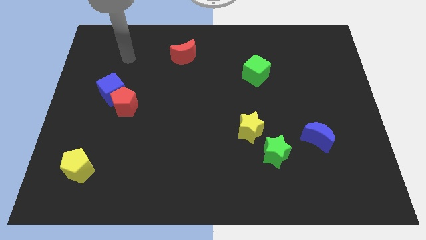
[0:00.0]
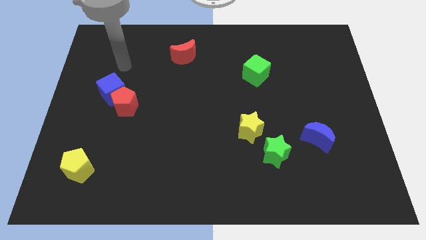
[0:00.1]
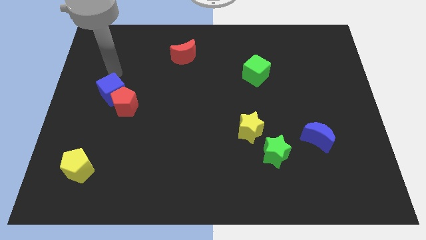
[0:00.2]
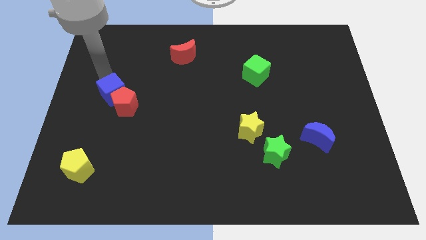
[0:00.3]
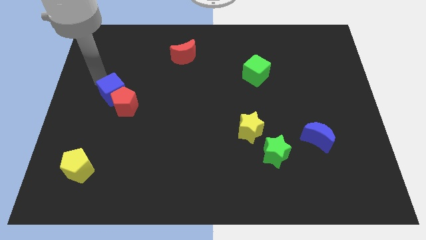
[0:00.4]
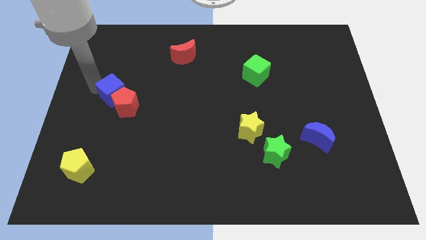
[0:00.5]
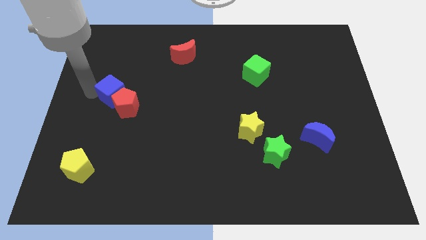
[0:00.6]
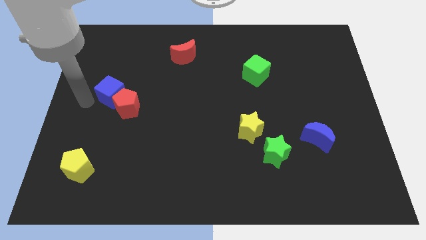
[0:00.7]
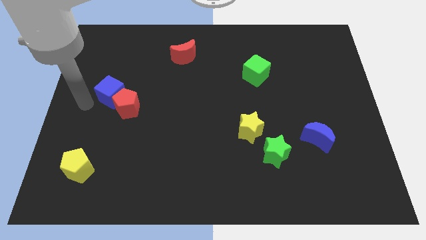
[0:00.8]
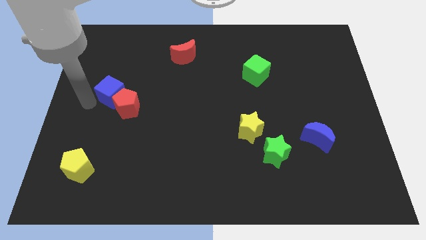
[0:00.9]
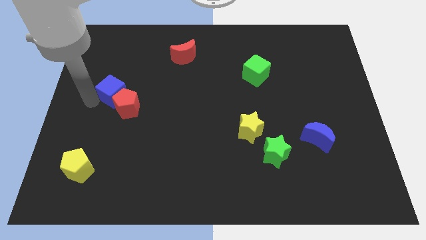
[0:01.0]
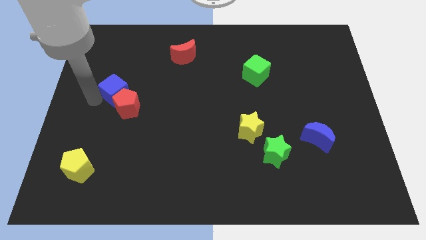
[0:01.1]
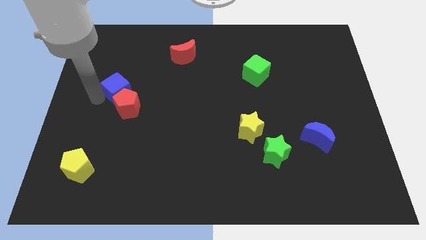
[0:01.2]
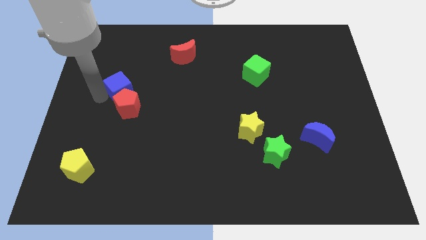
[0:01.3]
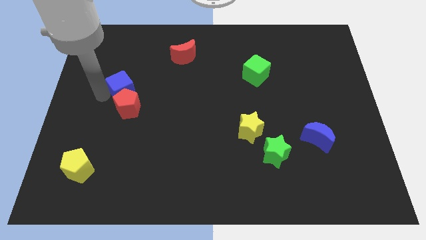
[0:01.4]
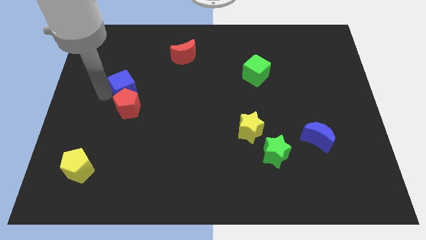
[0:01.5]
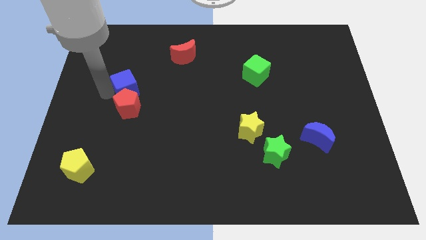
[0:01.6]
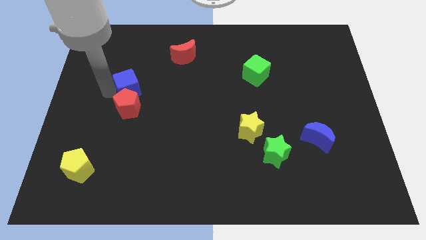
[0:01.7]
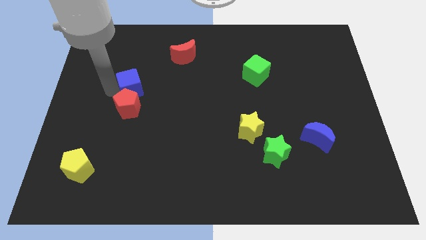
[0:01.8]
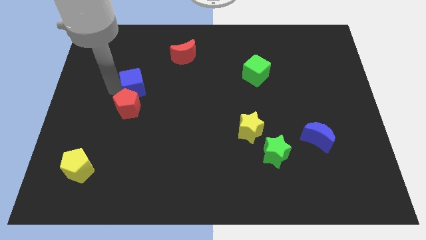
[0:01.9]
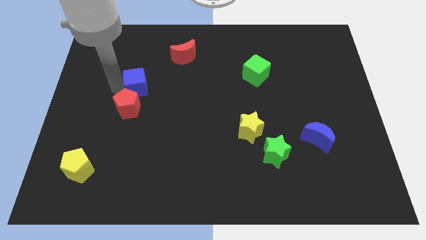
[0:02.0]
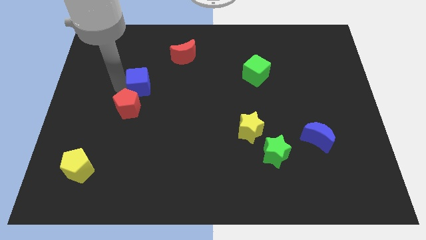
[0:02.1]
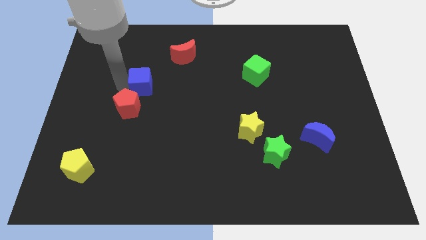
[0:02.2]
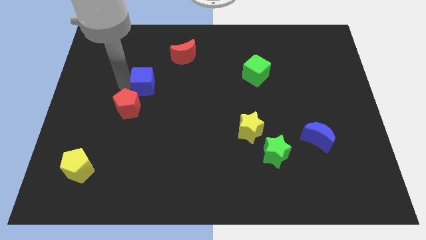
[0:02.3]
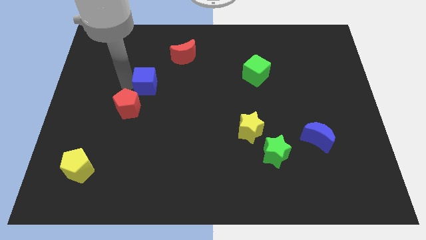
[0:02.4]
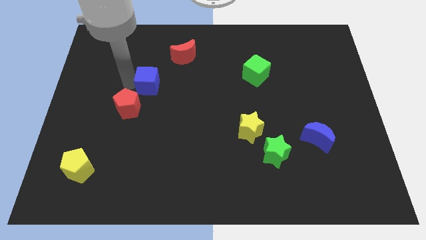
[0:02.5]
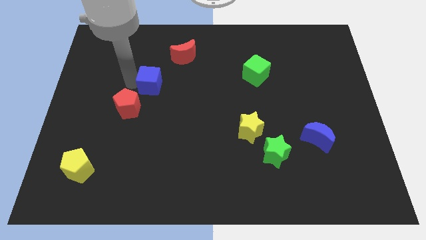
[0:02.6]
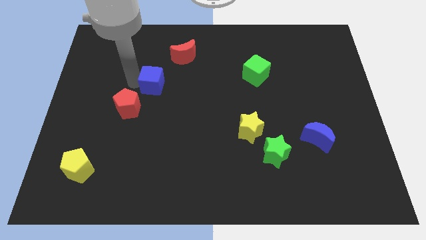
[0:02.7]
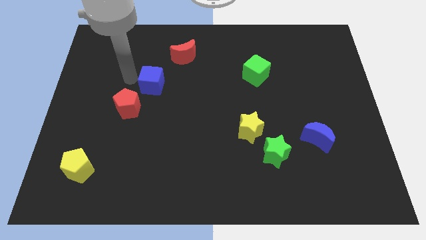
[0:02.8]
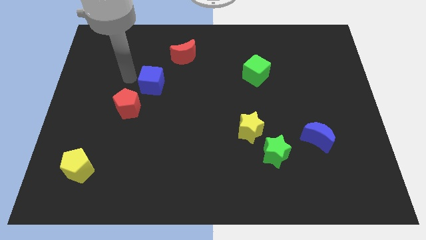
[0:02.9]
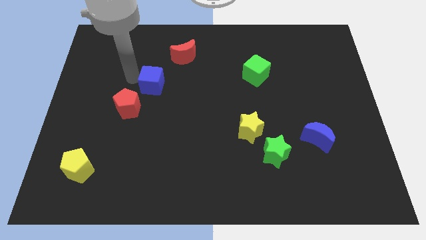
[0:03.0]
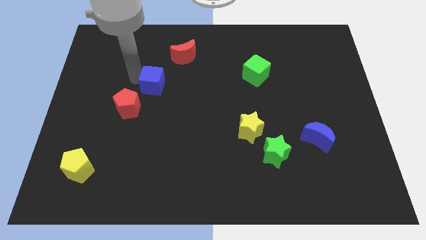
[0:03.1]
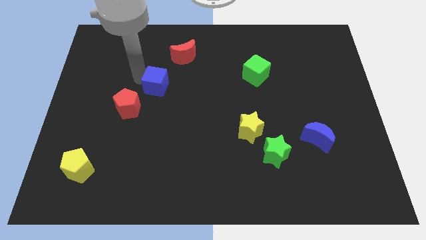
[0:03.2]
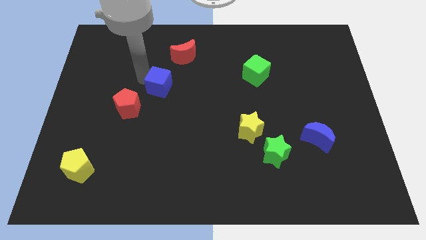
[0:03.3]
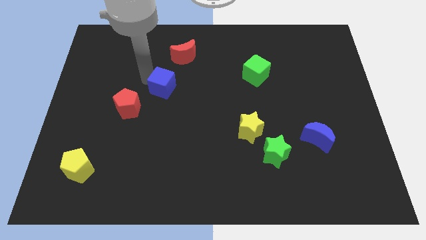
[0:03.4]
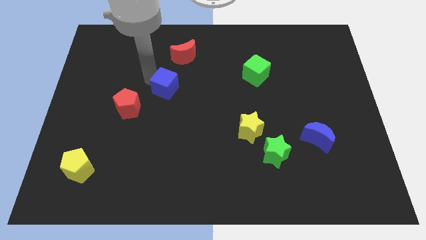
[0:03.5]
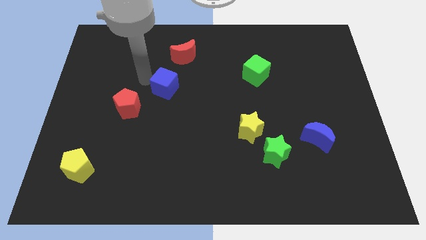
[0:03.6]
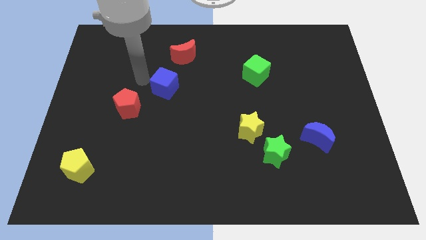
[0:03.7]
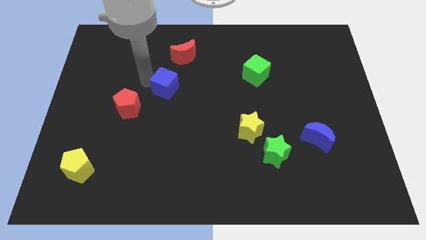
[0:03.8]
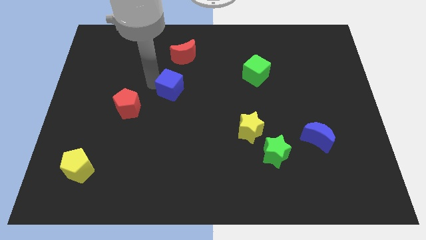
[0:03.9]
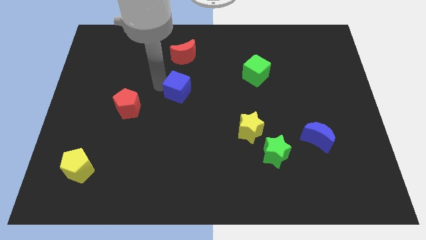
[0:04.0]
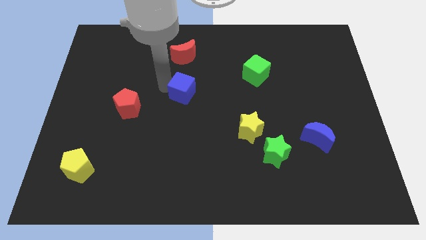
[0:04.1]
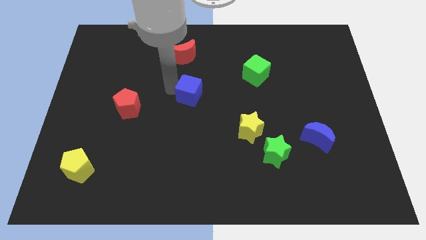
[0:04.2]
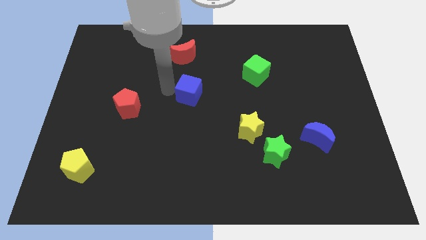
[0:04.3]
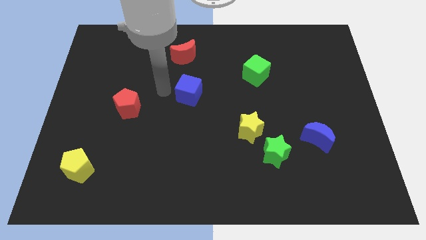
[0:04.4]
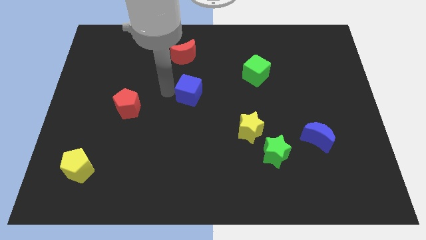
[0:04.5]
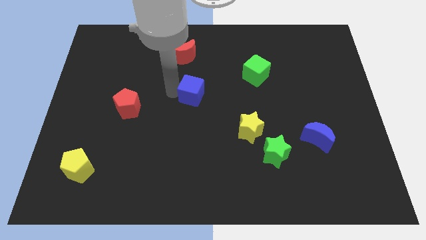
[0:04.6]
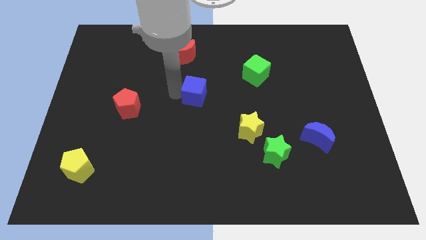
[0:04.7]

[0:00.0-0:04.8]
push the blue cube right

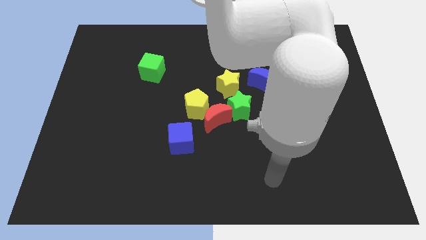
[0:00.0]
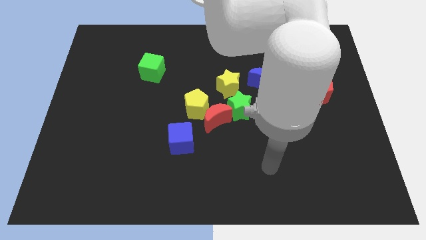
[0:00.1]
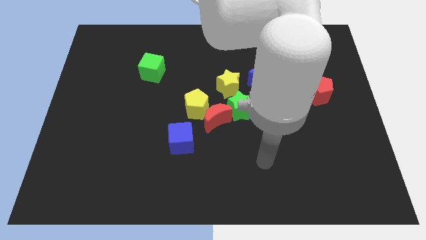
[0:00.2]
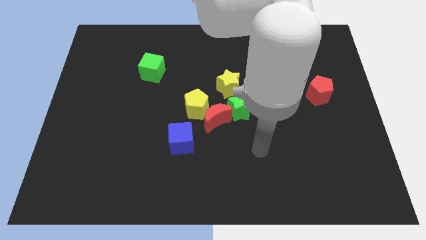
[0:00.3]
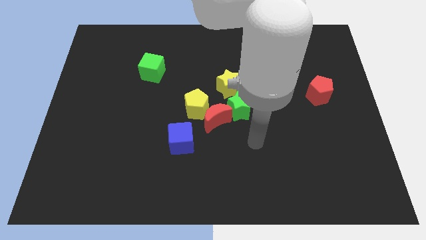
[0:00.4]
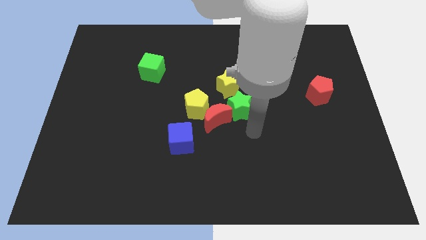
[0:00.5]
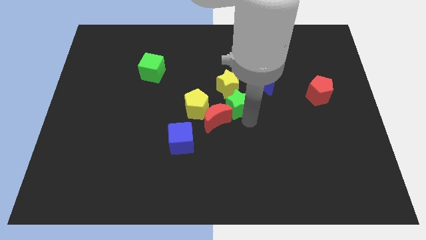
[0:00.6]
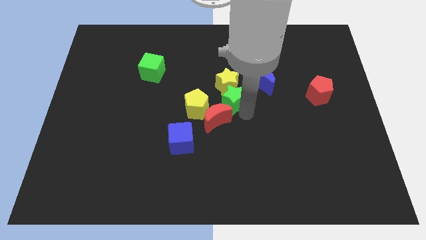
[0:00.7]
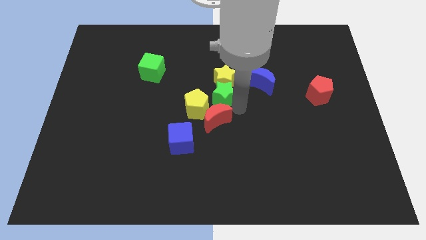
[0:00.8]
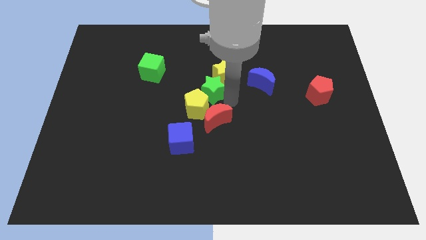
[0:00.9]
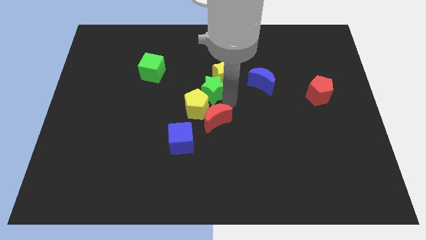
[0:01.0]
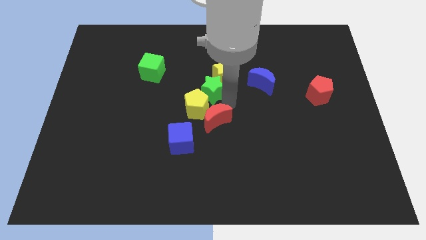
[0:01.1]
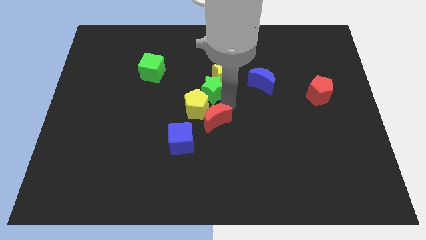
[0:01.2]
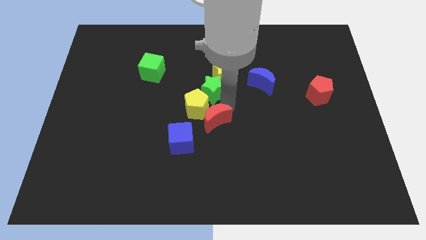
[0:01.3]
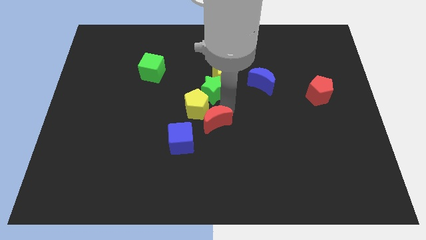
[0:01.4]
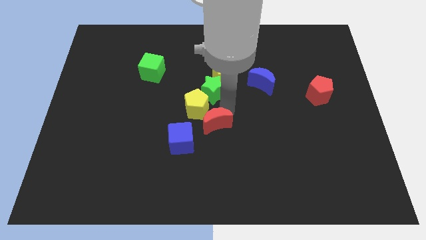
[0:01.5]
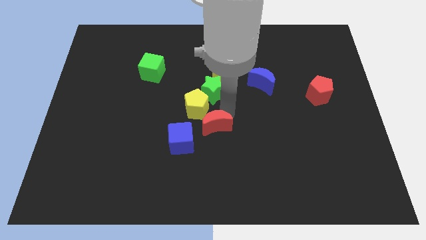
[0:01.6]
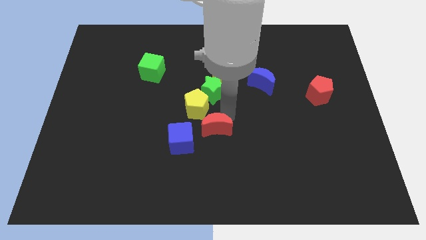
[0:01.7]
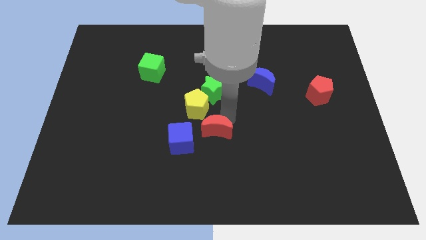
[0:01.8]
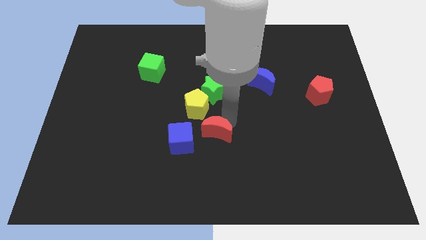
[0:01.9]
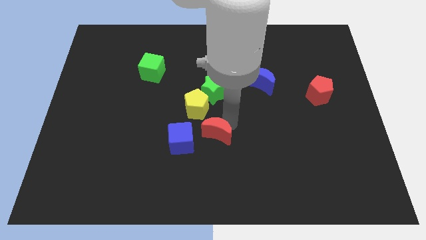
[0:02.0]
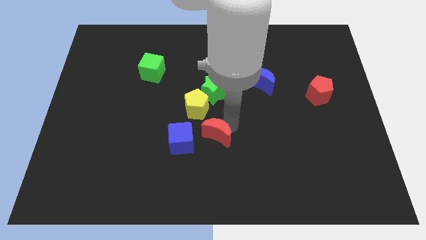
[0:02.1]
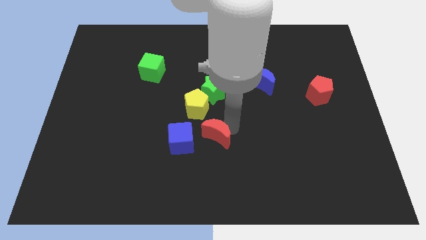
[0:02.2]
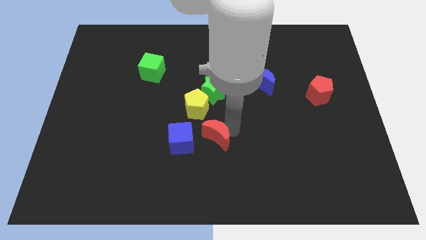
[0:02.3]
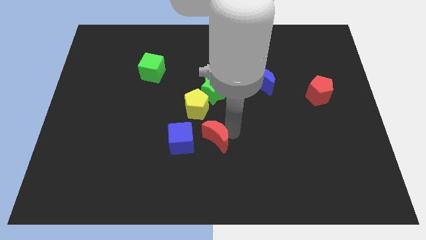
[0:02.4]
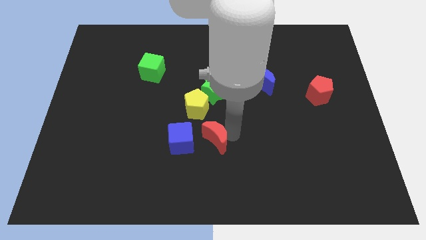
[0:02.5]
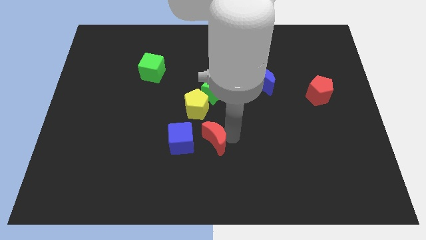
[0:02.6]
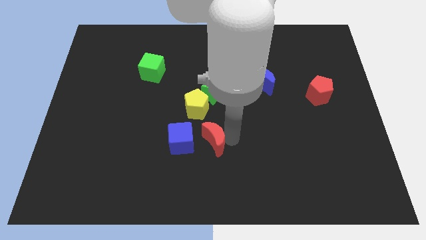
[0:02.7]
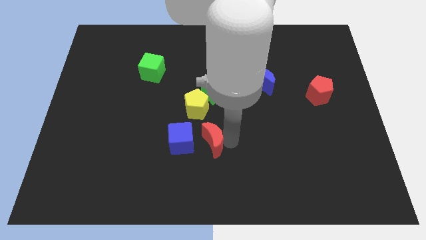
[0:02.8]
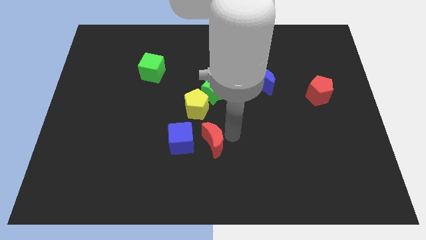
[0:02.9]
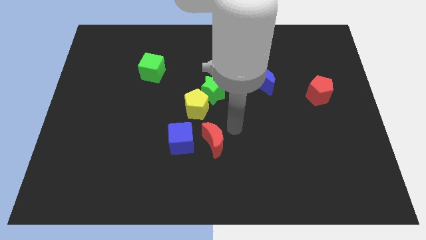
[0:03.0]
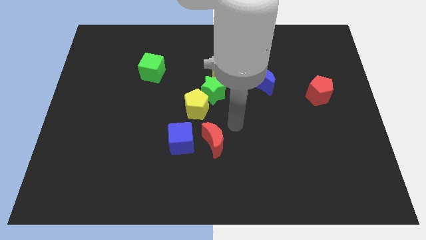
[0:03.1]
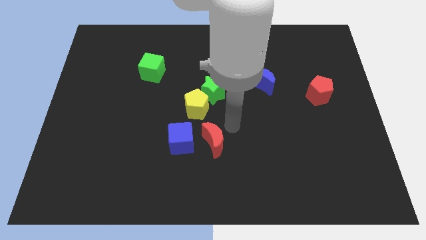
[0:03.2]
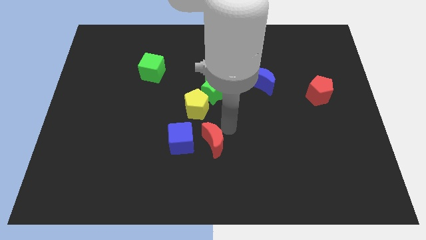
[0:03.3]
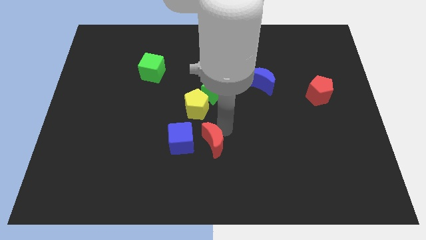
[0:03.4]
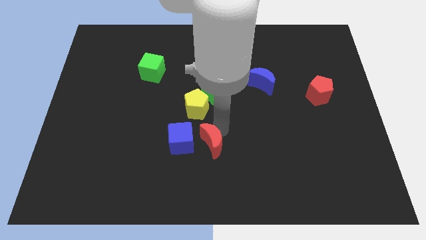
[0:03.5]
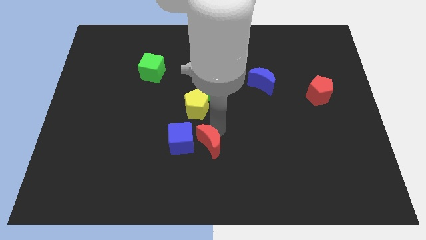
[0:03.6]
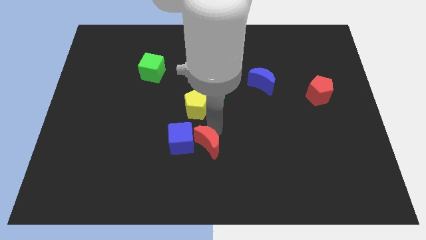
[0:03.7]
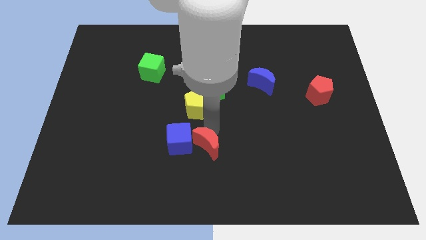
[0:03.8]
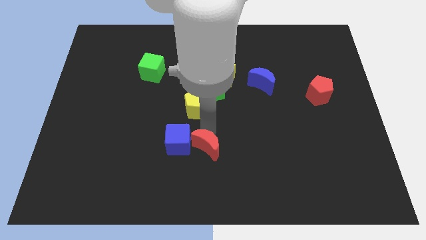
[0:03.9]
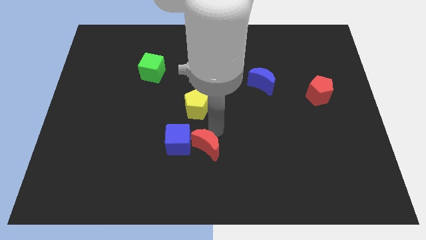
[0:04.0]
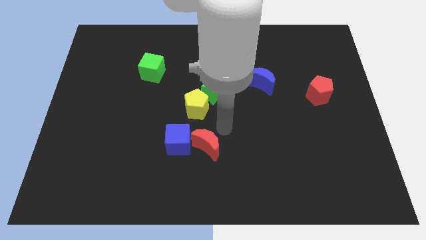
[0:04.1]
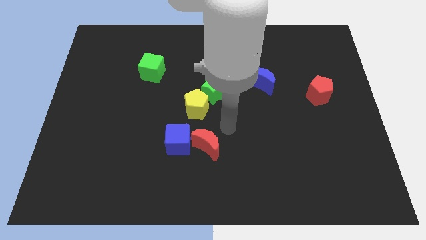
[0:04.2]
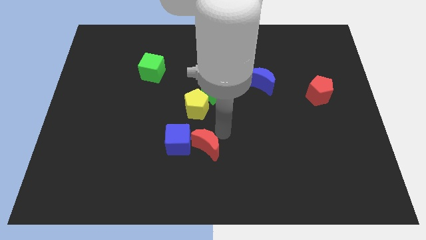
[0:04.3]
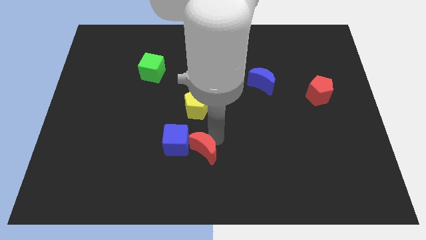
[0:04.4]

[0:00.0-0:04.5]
slightly move the red moon down and to the left diagonally
